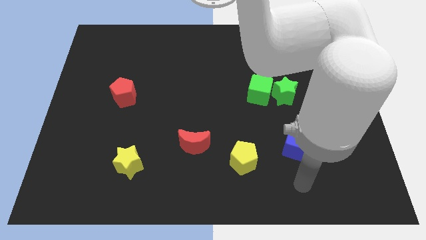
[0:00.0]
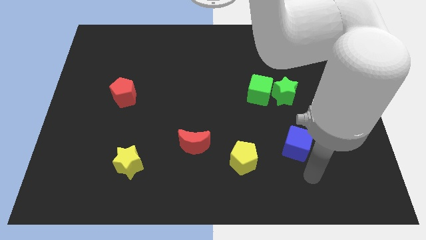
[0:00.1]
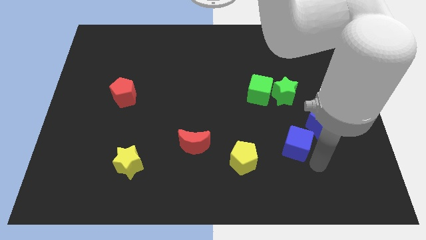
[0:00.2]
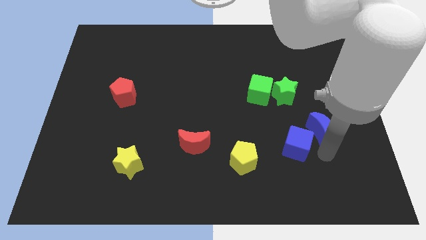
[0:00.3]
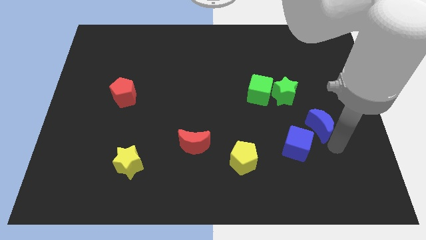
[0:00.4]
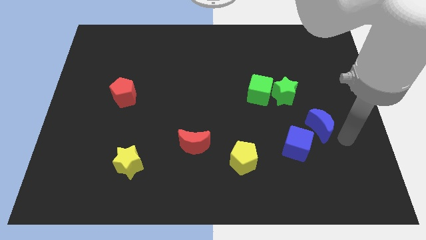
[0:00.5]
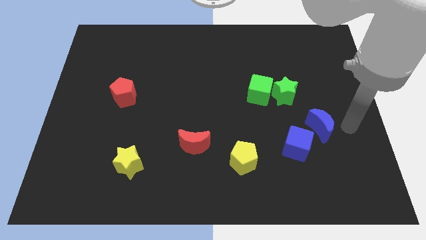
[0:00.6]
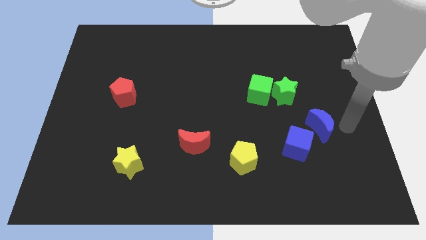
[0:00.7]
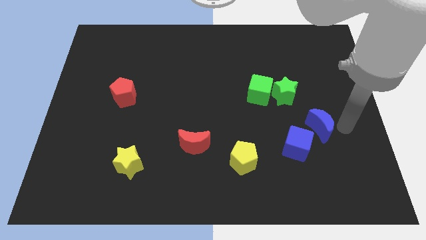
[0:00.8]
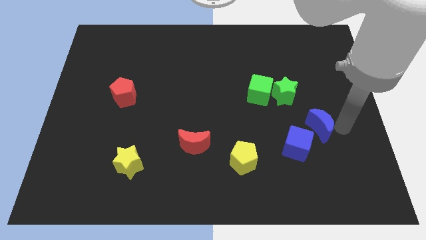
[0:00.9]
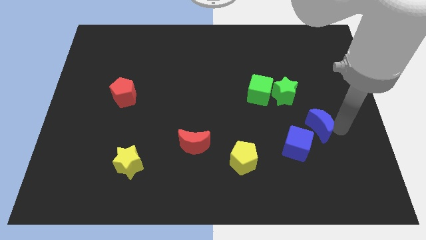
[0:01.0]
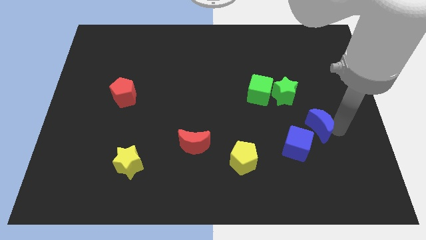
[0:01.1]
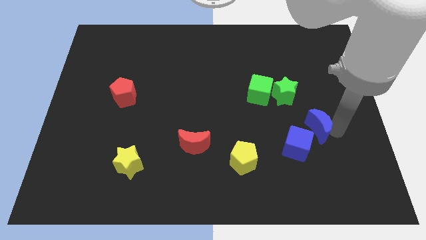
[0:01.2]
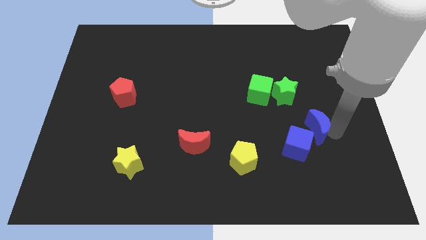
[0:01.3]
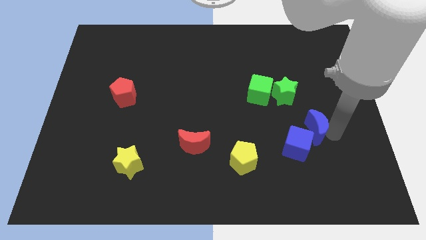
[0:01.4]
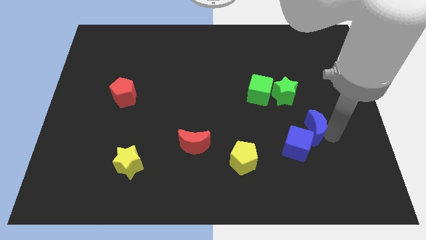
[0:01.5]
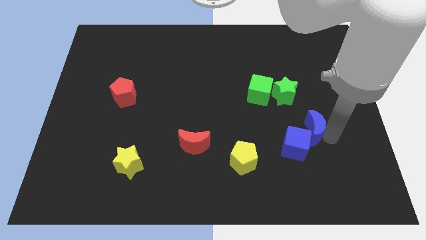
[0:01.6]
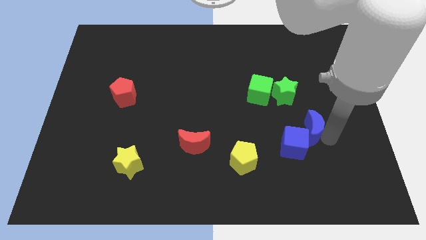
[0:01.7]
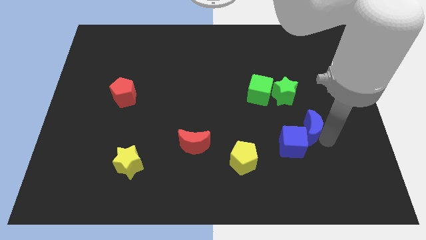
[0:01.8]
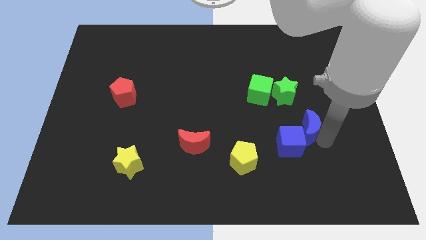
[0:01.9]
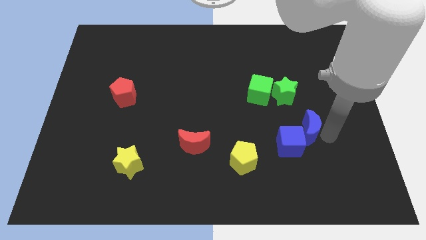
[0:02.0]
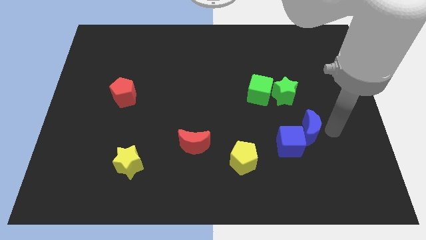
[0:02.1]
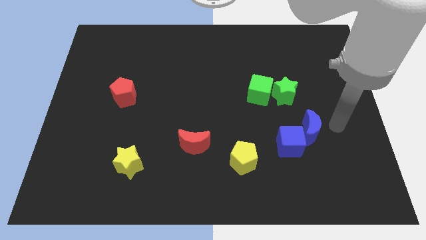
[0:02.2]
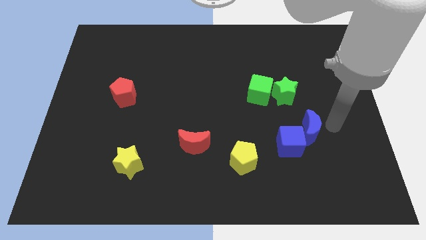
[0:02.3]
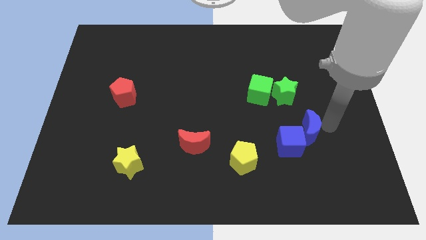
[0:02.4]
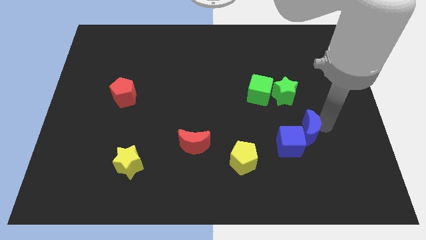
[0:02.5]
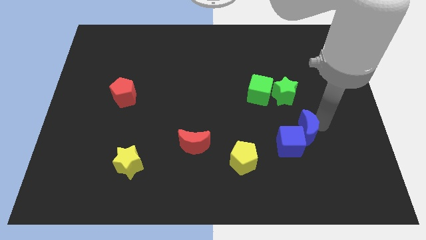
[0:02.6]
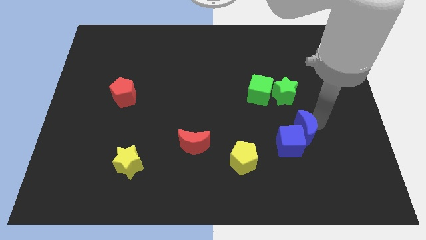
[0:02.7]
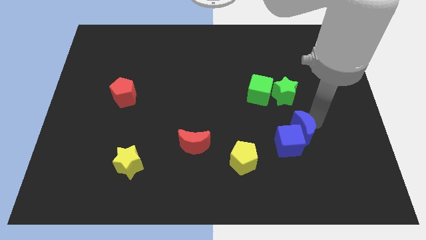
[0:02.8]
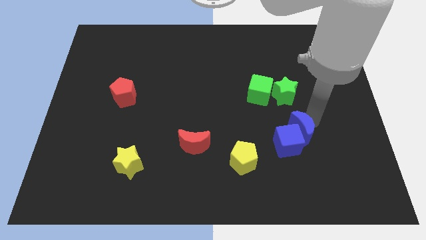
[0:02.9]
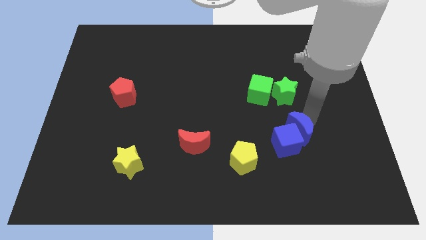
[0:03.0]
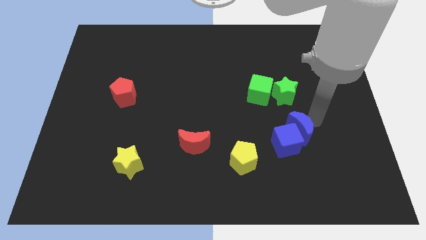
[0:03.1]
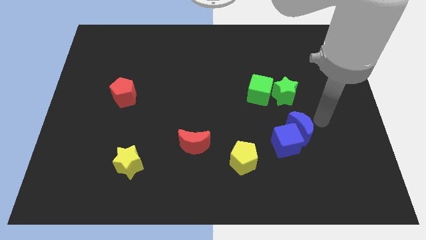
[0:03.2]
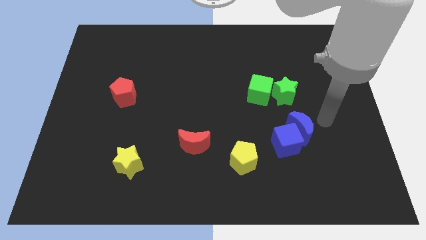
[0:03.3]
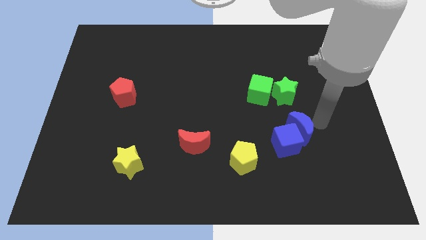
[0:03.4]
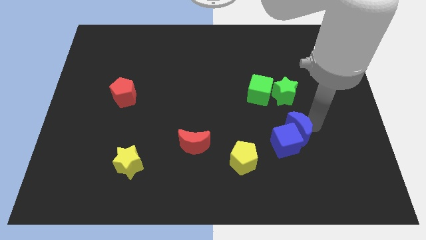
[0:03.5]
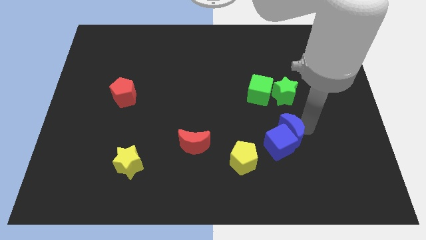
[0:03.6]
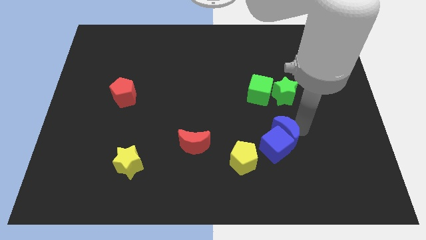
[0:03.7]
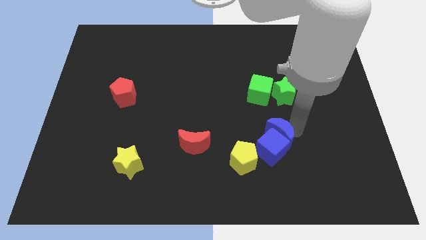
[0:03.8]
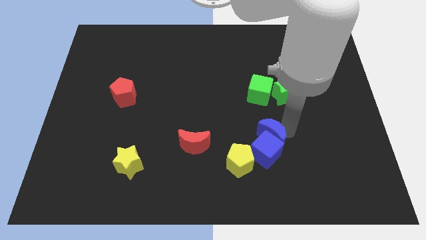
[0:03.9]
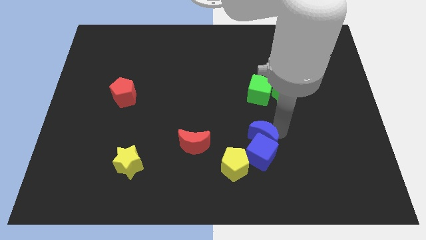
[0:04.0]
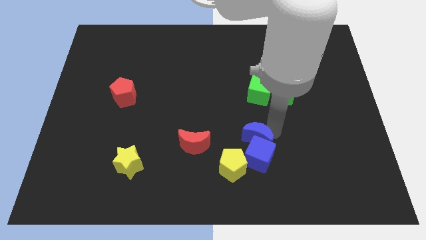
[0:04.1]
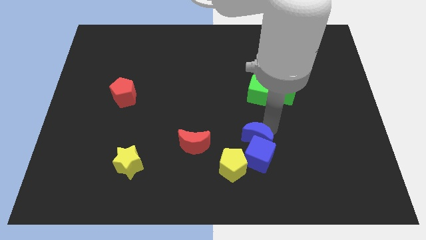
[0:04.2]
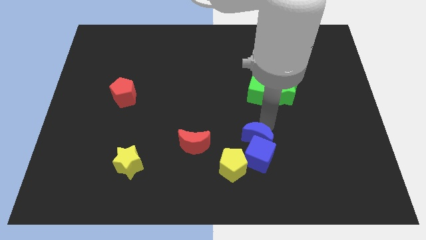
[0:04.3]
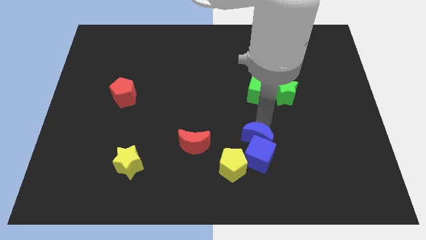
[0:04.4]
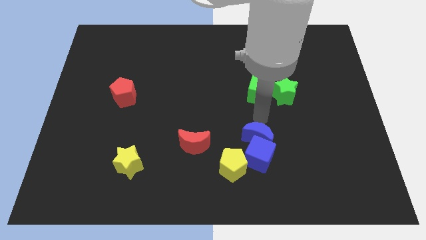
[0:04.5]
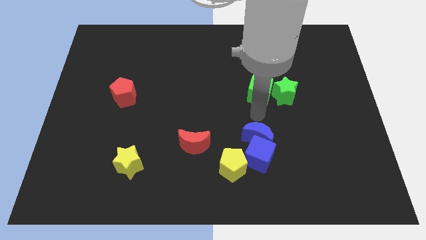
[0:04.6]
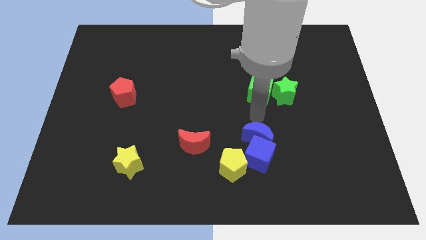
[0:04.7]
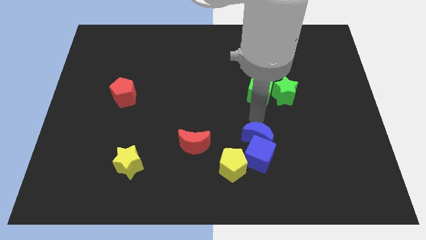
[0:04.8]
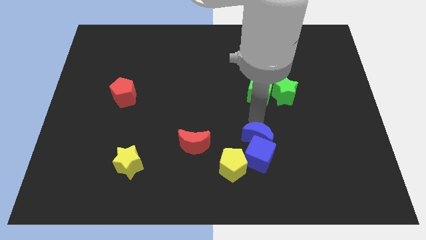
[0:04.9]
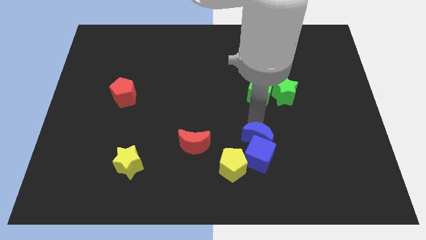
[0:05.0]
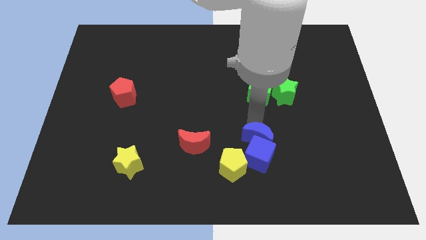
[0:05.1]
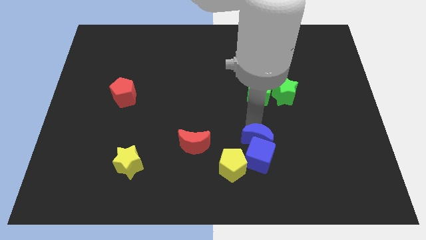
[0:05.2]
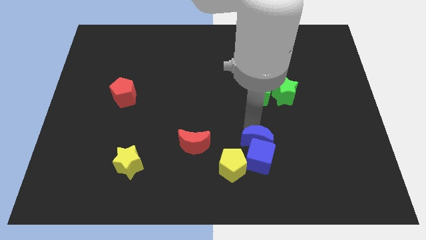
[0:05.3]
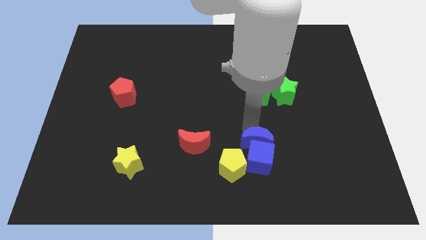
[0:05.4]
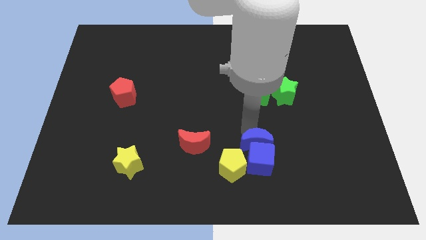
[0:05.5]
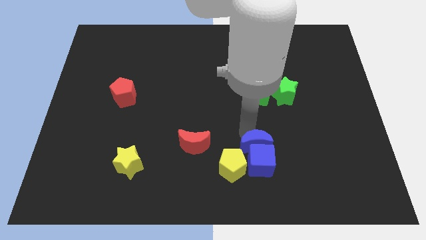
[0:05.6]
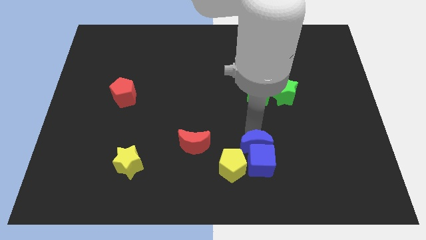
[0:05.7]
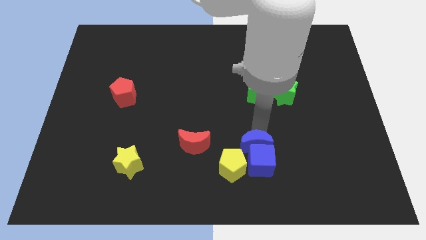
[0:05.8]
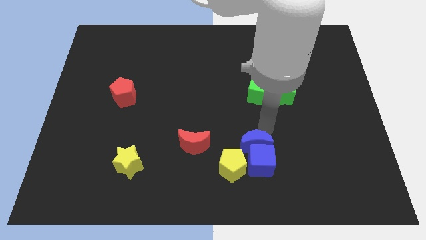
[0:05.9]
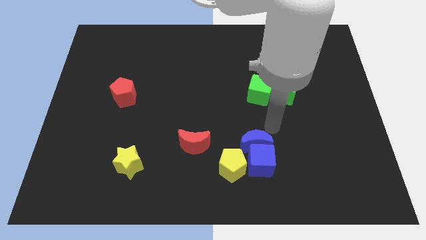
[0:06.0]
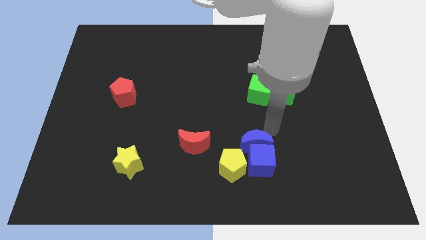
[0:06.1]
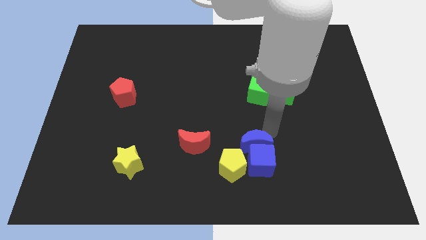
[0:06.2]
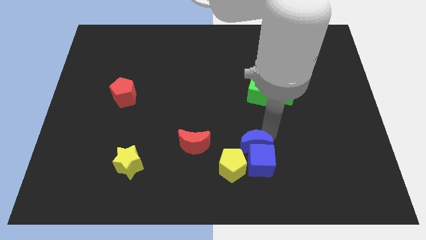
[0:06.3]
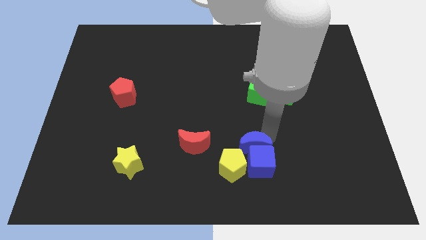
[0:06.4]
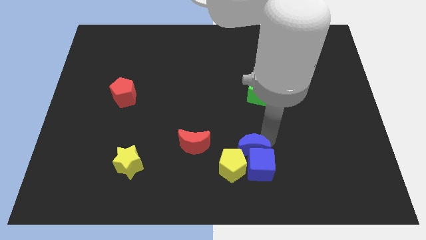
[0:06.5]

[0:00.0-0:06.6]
move the blue moon to the yellow pentagon
